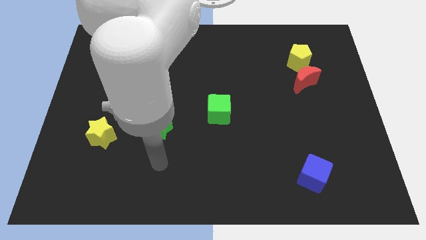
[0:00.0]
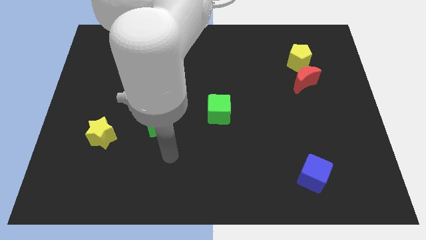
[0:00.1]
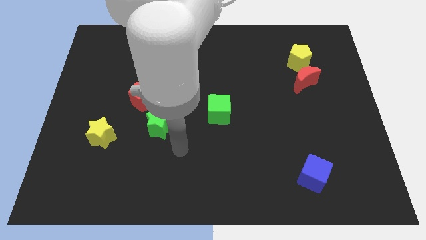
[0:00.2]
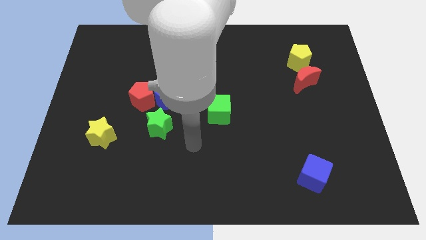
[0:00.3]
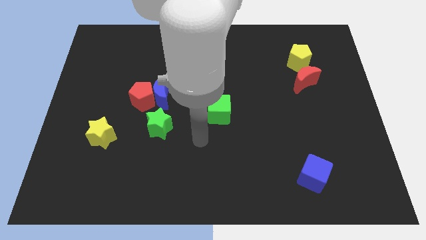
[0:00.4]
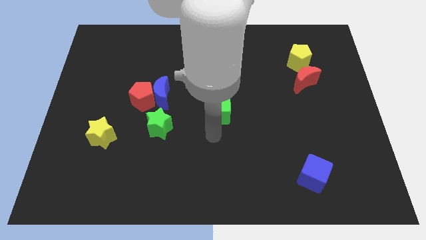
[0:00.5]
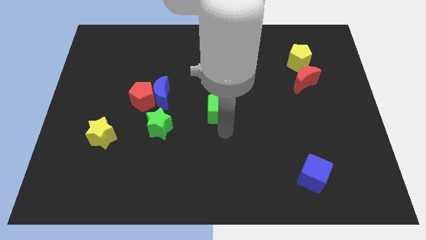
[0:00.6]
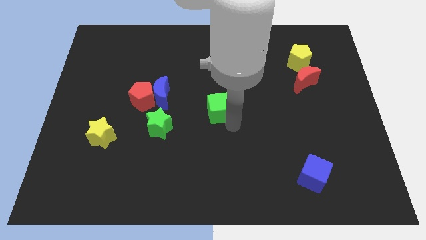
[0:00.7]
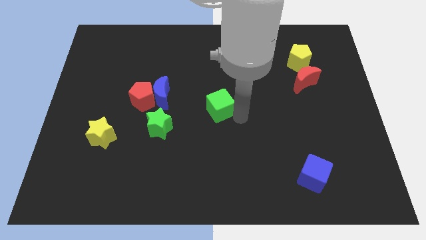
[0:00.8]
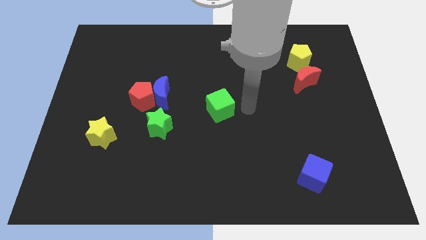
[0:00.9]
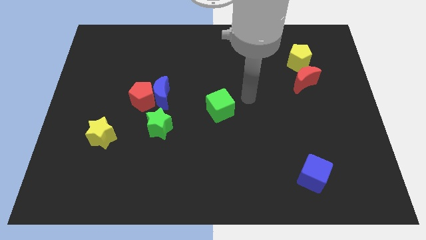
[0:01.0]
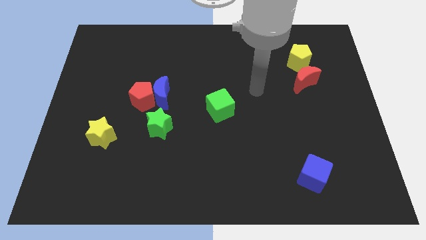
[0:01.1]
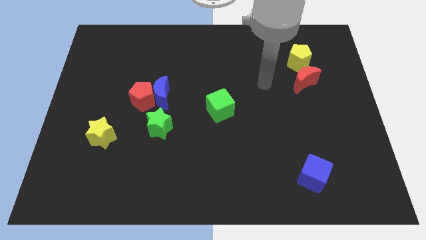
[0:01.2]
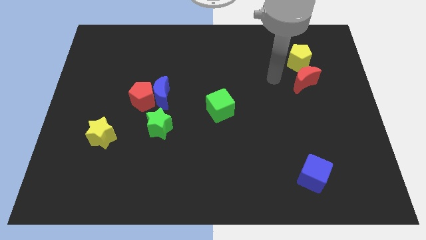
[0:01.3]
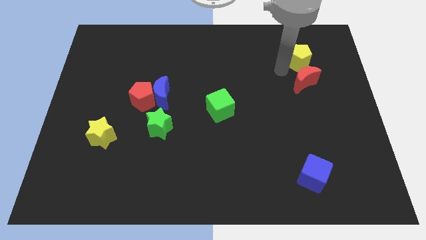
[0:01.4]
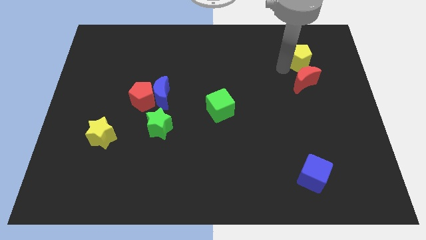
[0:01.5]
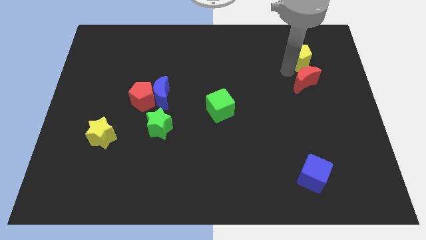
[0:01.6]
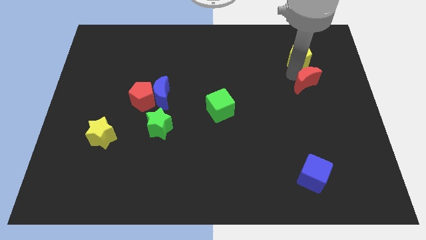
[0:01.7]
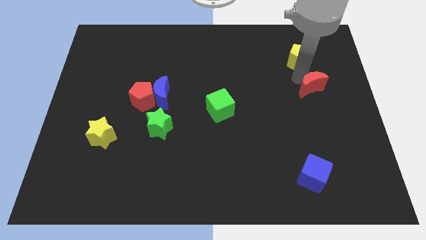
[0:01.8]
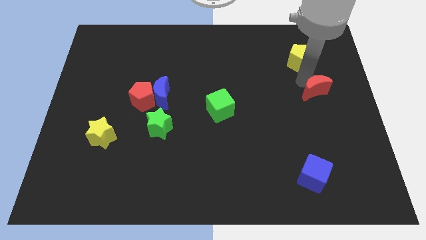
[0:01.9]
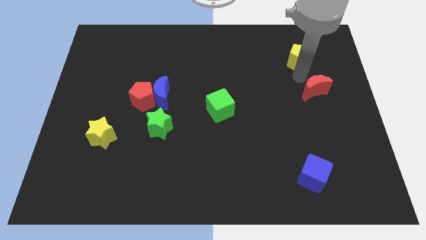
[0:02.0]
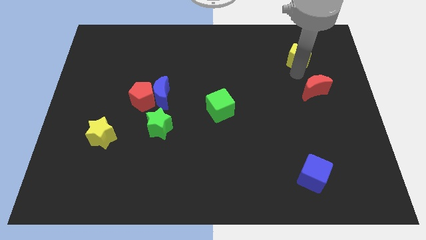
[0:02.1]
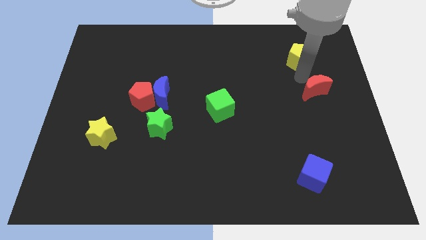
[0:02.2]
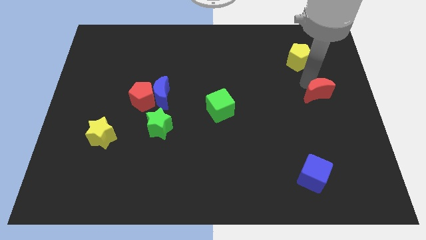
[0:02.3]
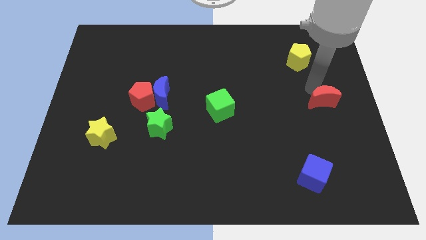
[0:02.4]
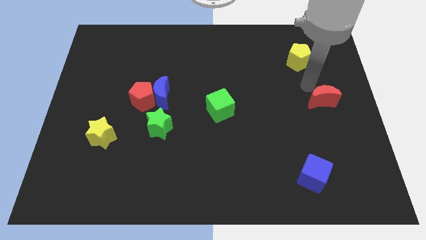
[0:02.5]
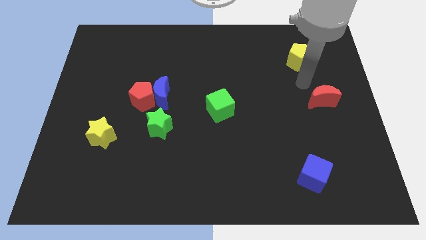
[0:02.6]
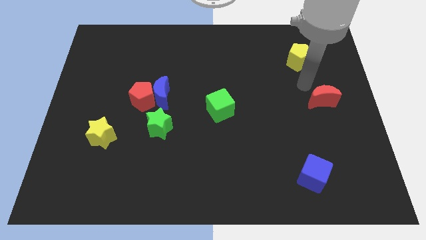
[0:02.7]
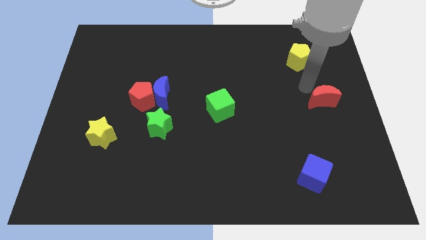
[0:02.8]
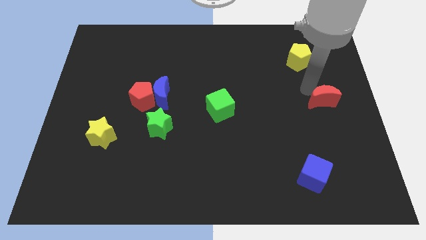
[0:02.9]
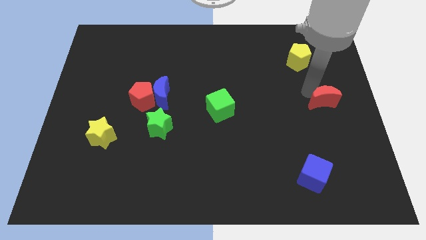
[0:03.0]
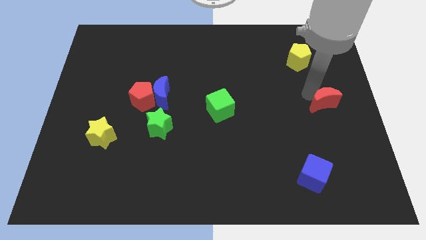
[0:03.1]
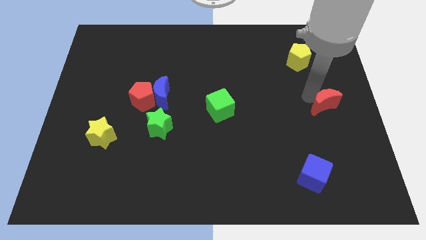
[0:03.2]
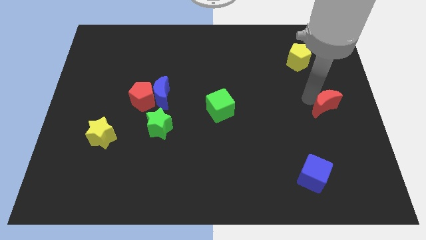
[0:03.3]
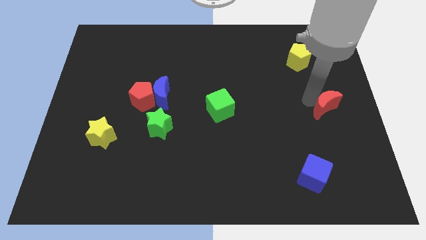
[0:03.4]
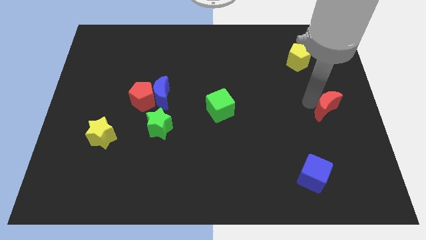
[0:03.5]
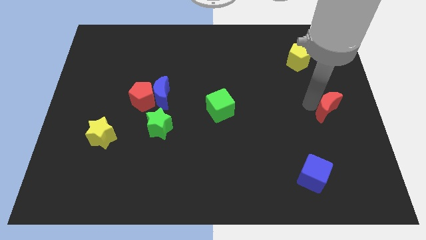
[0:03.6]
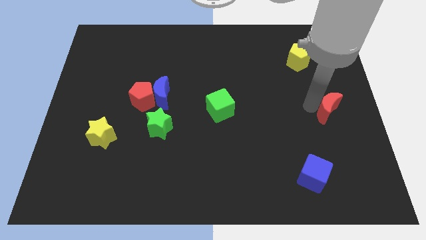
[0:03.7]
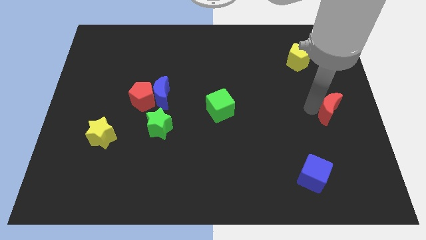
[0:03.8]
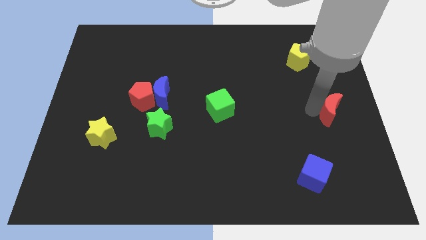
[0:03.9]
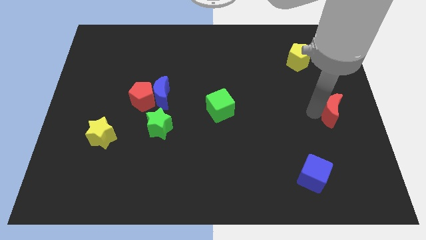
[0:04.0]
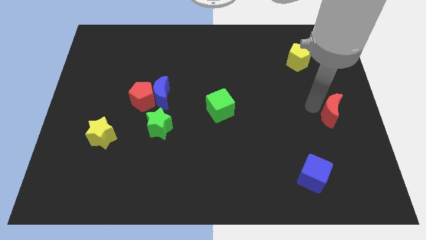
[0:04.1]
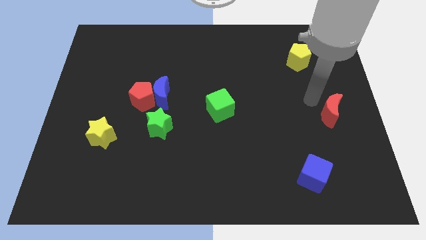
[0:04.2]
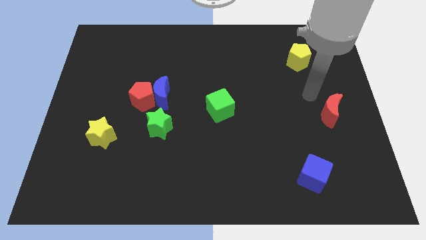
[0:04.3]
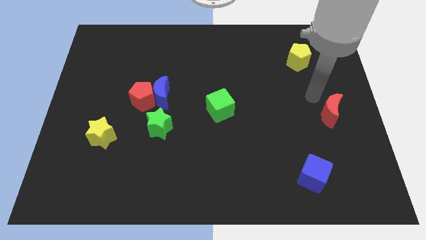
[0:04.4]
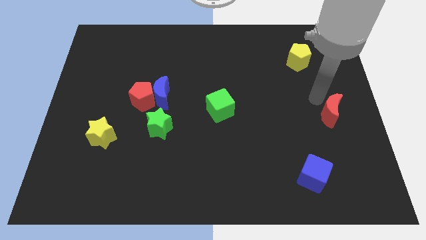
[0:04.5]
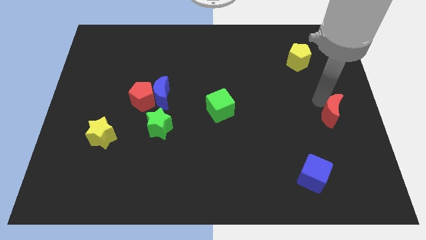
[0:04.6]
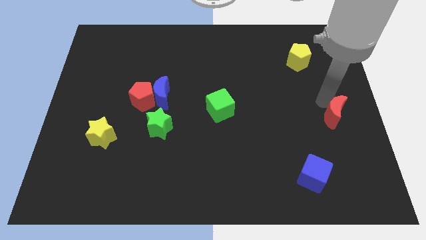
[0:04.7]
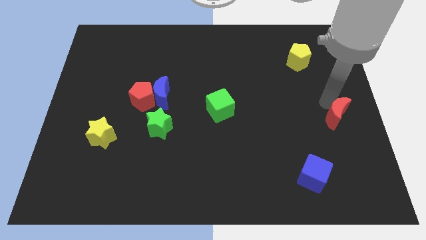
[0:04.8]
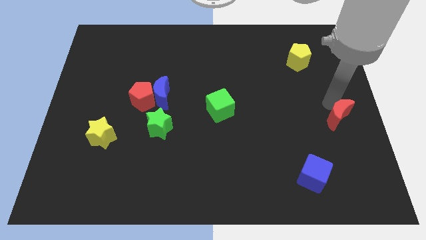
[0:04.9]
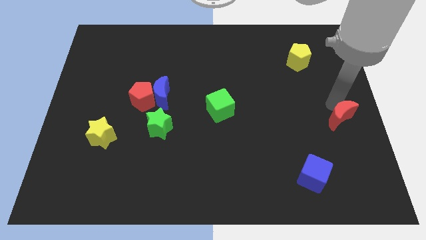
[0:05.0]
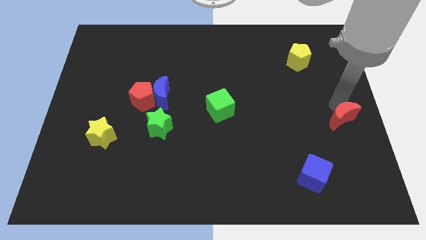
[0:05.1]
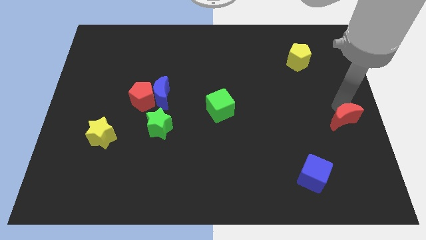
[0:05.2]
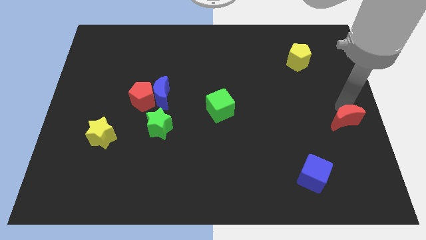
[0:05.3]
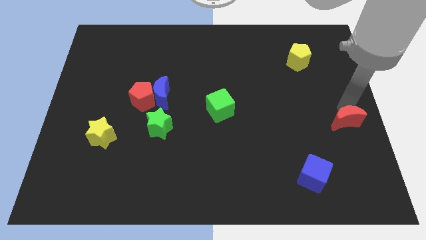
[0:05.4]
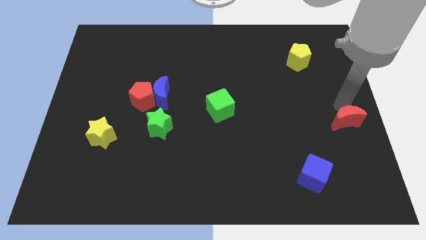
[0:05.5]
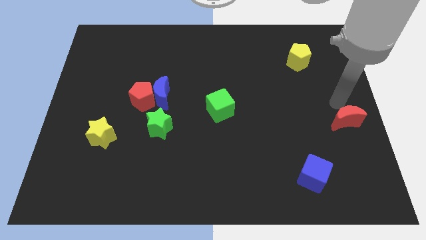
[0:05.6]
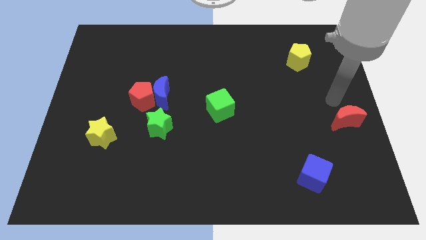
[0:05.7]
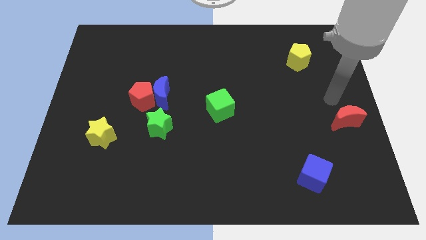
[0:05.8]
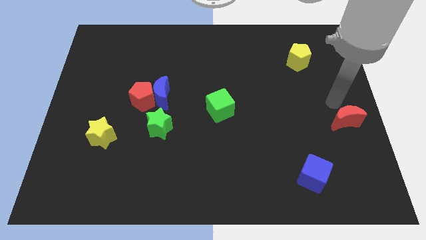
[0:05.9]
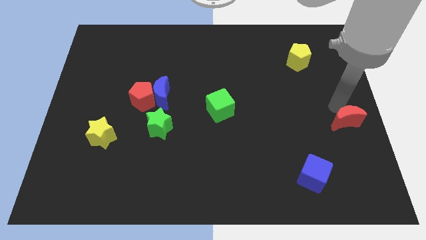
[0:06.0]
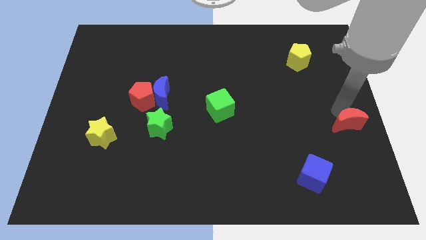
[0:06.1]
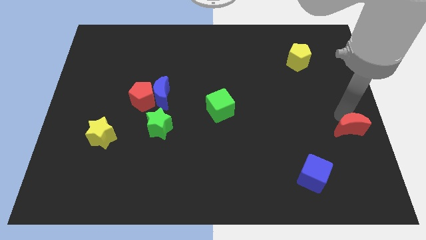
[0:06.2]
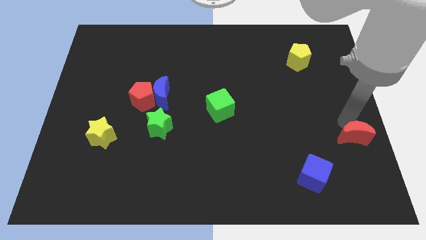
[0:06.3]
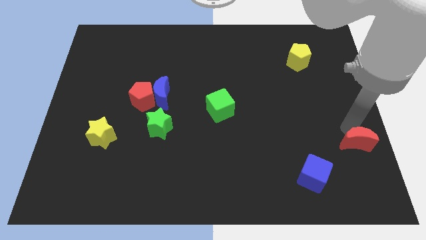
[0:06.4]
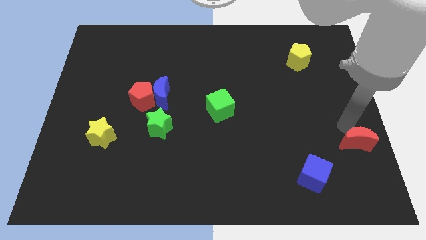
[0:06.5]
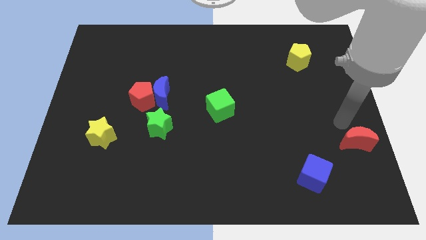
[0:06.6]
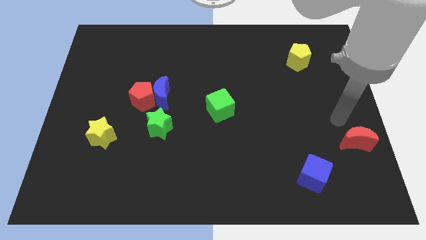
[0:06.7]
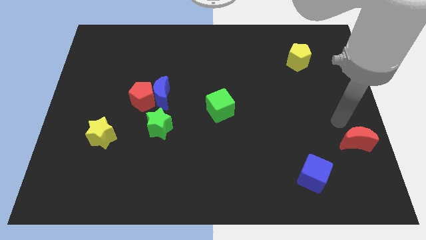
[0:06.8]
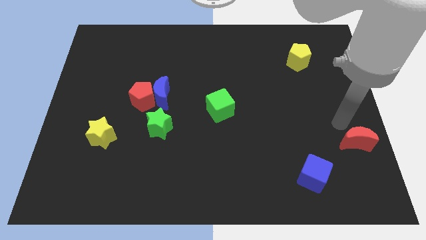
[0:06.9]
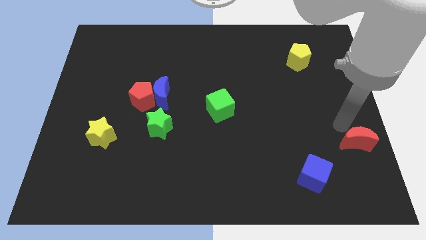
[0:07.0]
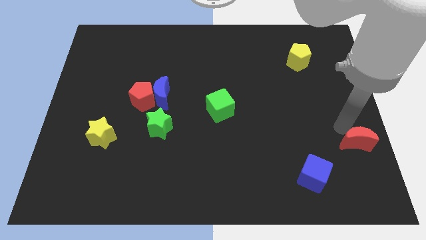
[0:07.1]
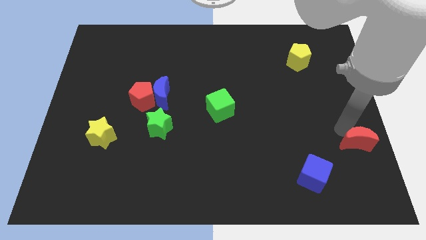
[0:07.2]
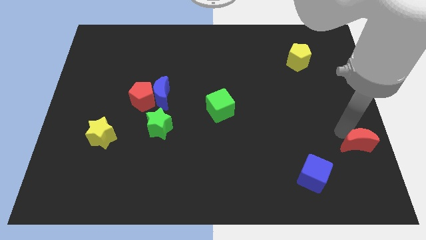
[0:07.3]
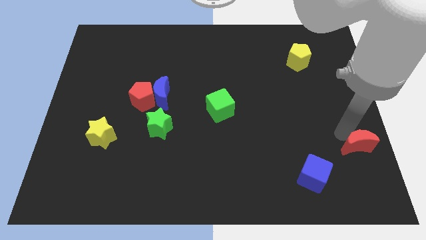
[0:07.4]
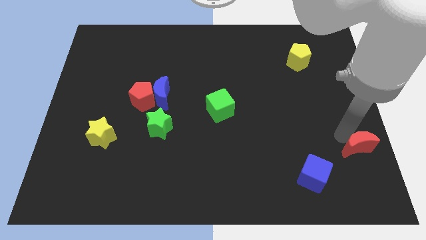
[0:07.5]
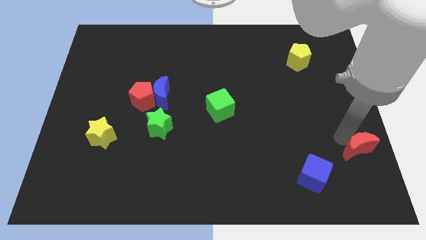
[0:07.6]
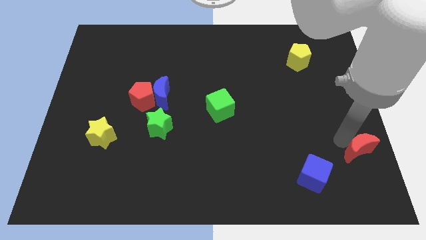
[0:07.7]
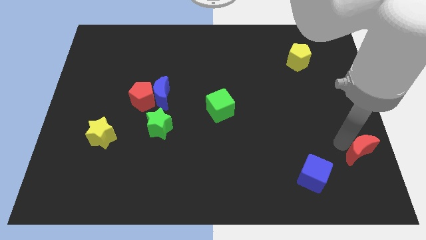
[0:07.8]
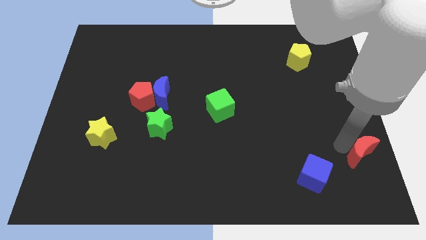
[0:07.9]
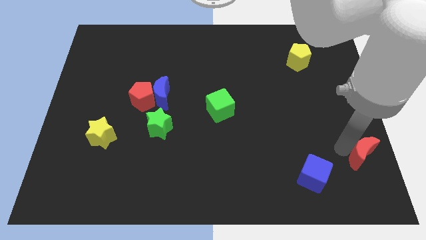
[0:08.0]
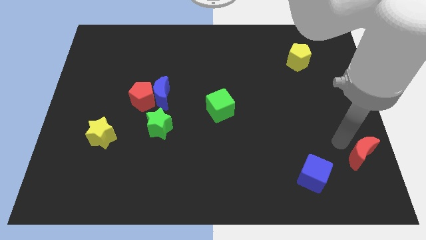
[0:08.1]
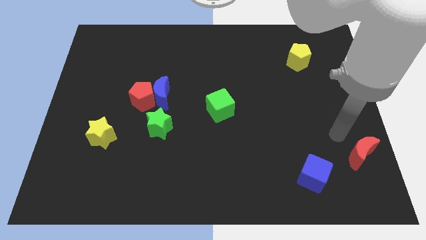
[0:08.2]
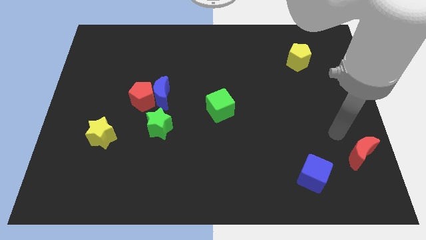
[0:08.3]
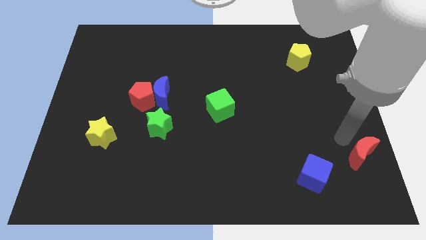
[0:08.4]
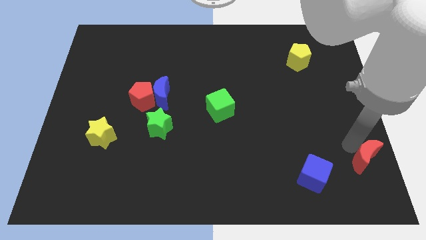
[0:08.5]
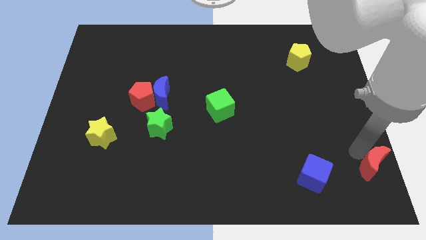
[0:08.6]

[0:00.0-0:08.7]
put the red moon to the lower right corner
